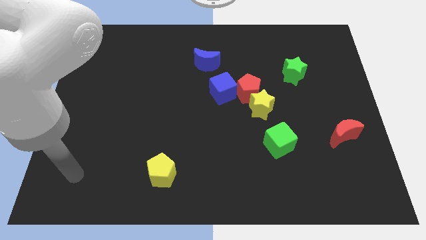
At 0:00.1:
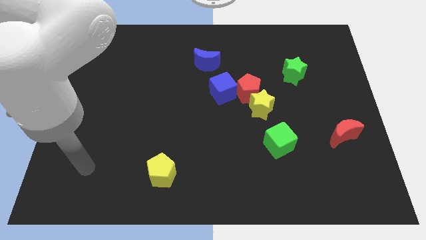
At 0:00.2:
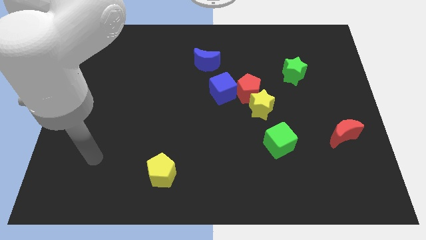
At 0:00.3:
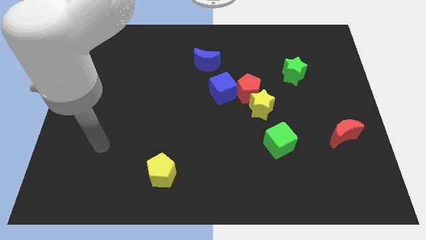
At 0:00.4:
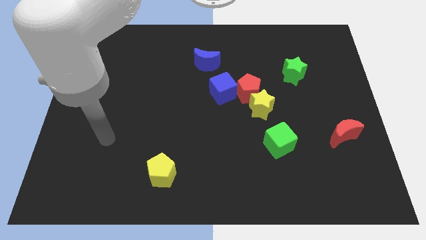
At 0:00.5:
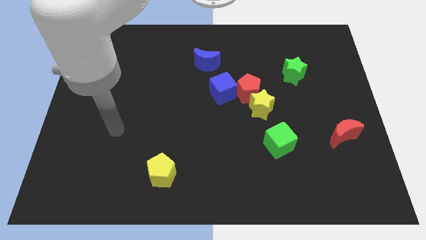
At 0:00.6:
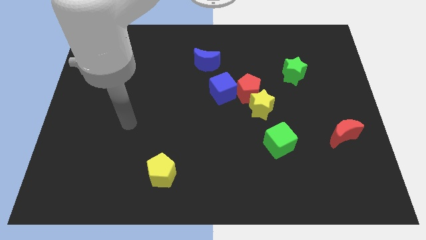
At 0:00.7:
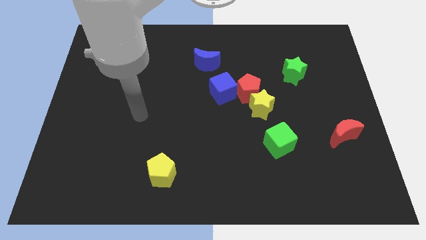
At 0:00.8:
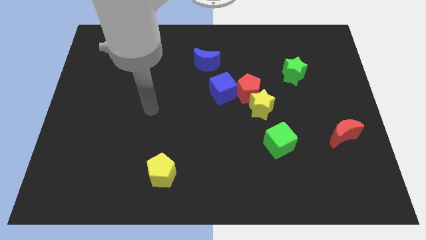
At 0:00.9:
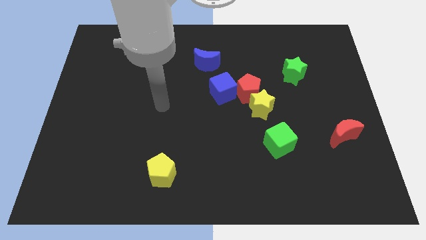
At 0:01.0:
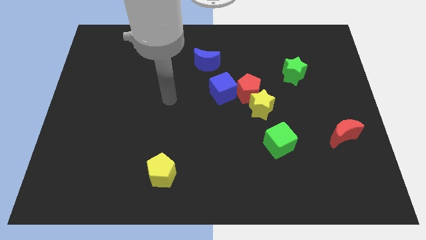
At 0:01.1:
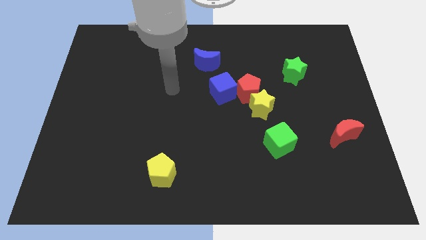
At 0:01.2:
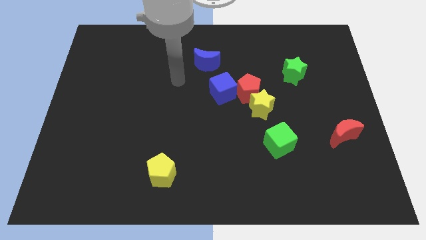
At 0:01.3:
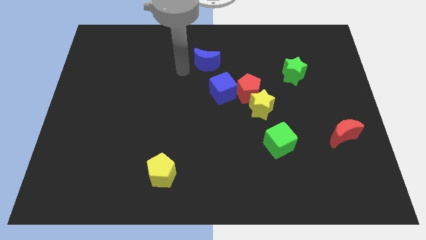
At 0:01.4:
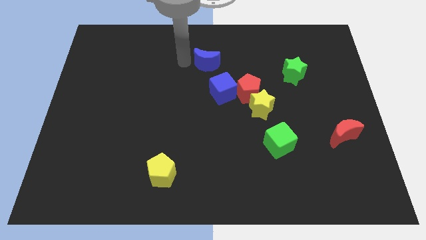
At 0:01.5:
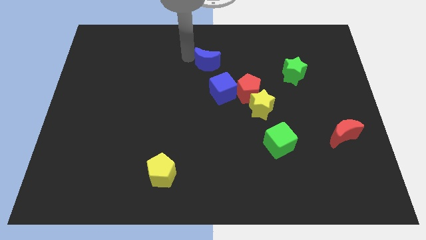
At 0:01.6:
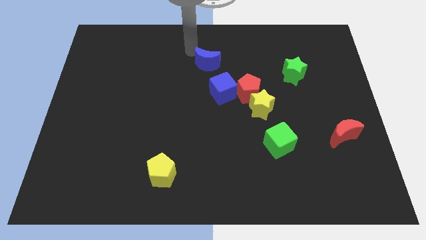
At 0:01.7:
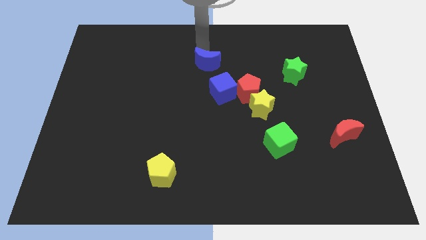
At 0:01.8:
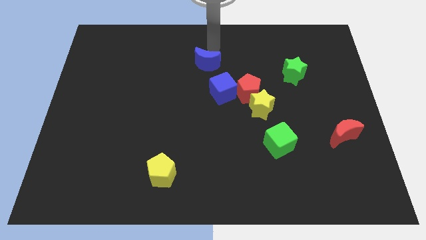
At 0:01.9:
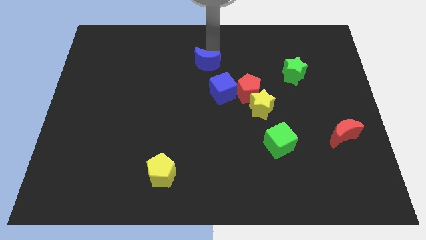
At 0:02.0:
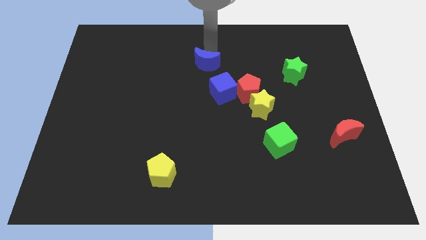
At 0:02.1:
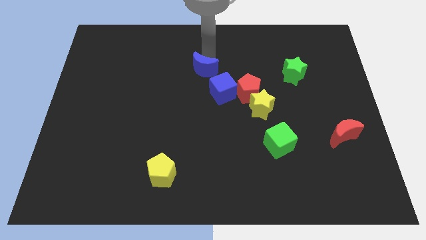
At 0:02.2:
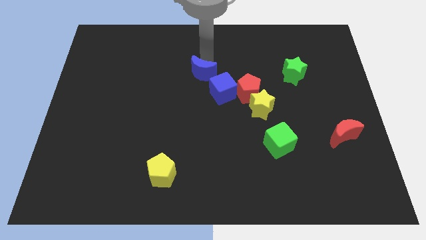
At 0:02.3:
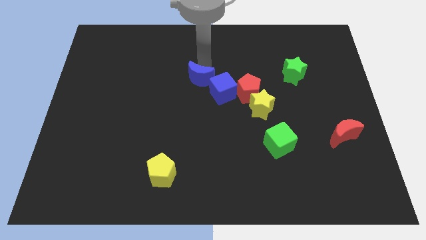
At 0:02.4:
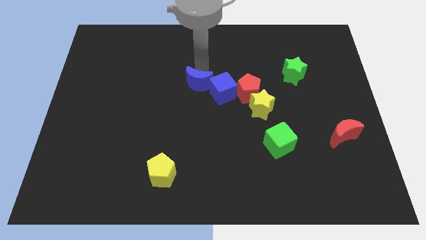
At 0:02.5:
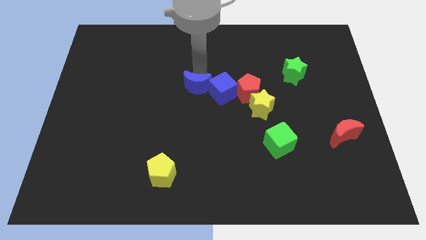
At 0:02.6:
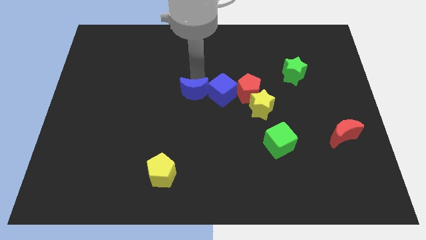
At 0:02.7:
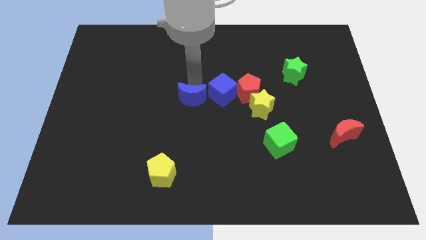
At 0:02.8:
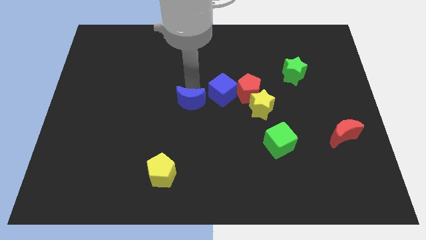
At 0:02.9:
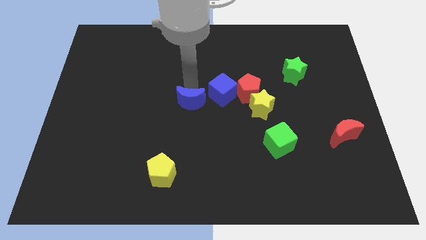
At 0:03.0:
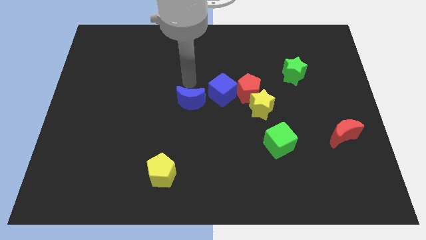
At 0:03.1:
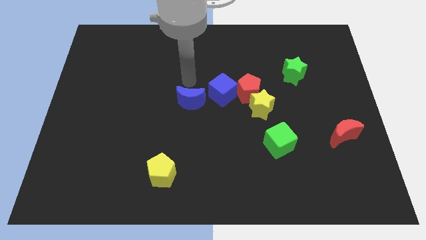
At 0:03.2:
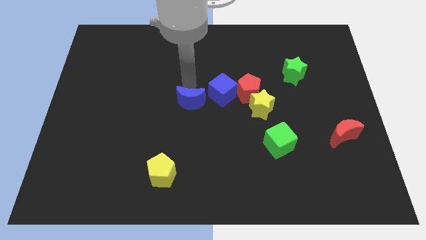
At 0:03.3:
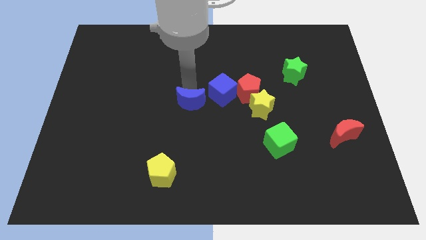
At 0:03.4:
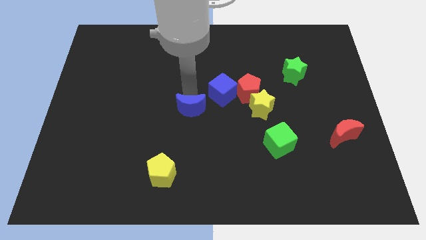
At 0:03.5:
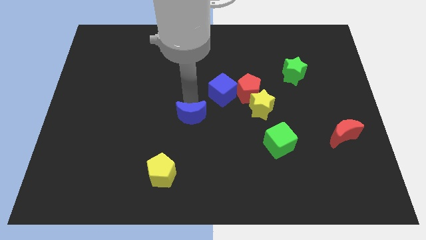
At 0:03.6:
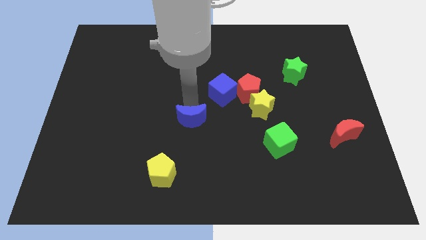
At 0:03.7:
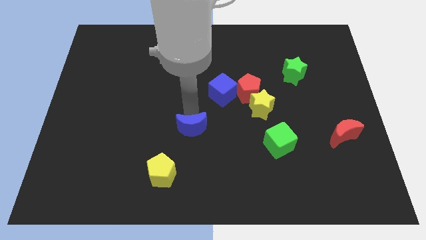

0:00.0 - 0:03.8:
move the blue moon downwards

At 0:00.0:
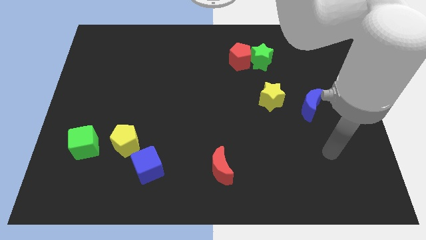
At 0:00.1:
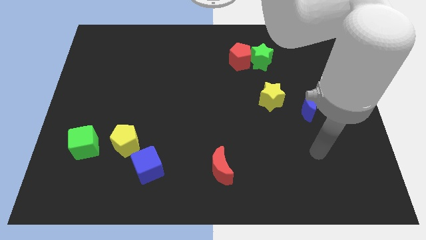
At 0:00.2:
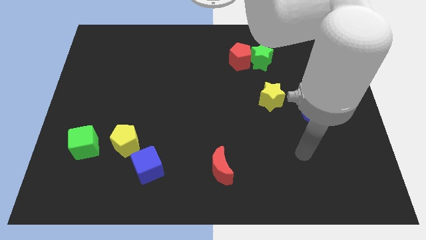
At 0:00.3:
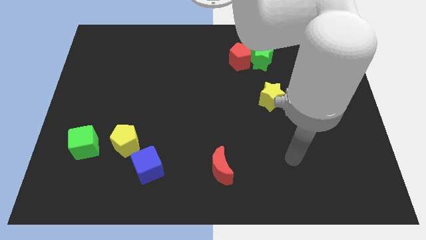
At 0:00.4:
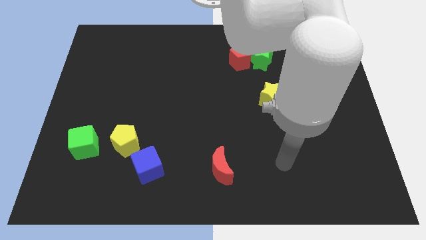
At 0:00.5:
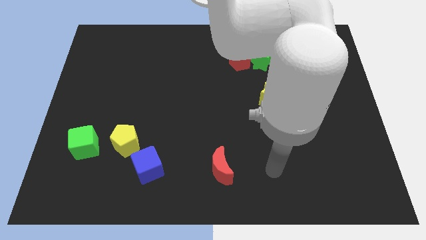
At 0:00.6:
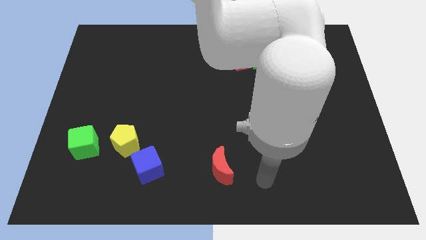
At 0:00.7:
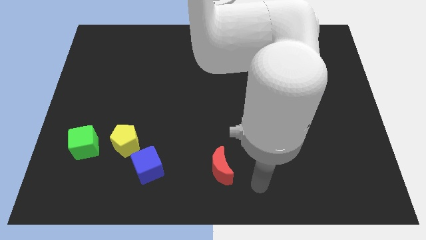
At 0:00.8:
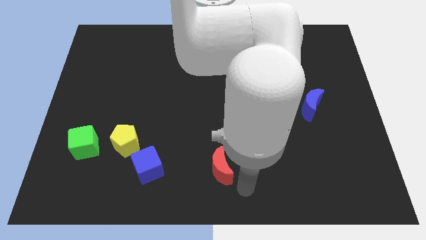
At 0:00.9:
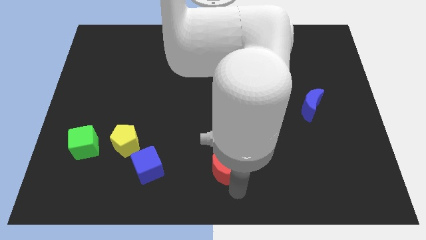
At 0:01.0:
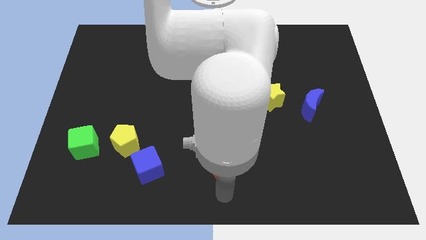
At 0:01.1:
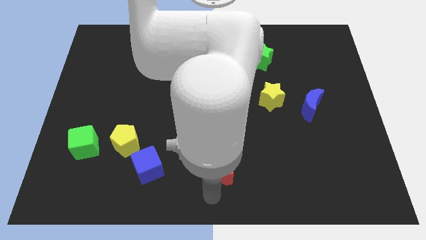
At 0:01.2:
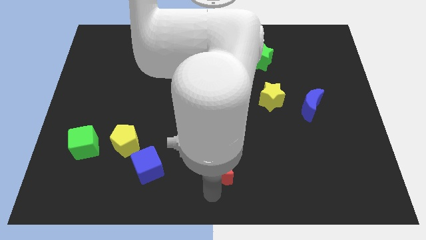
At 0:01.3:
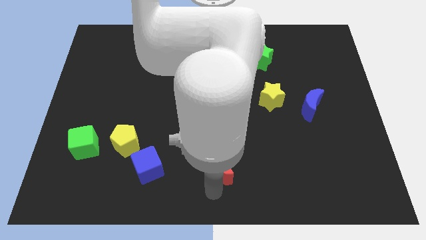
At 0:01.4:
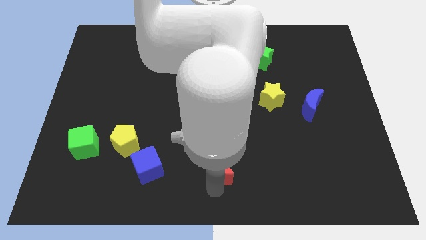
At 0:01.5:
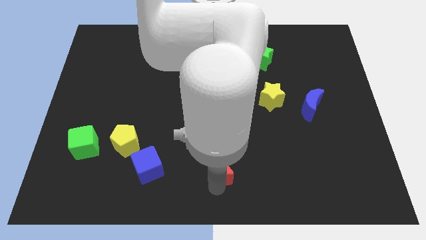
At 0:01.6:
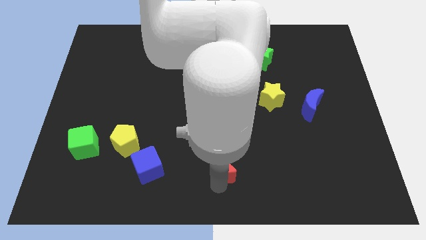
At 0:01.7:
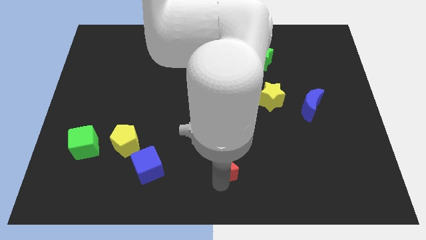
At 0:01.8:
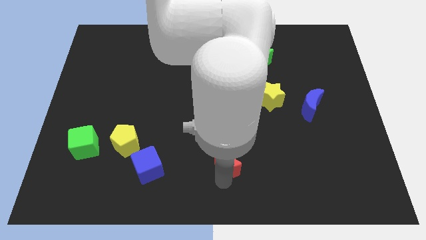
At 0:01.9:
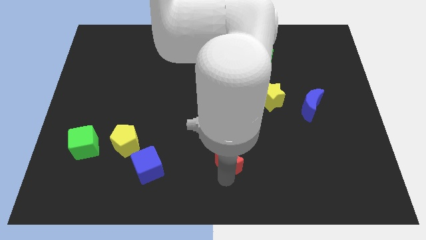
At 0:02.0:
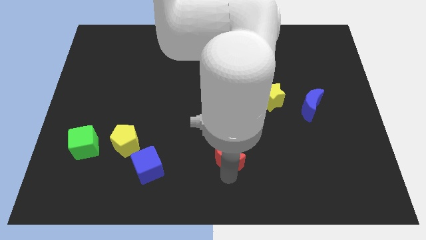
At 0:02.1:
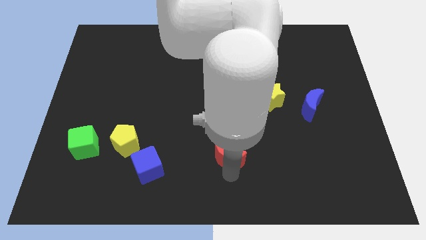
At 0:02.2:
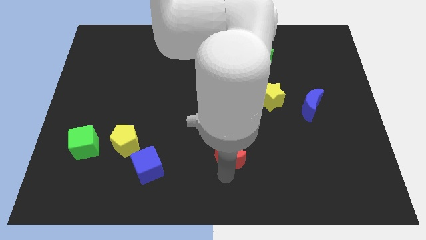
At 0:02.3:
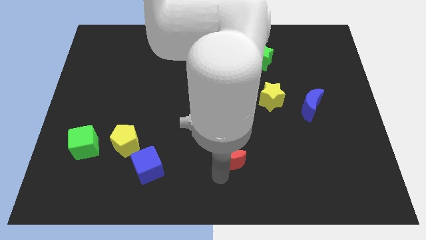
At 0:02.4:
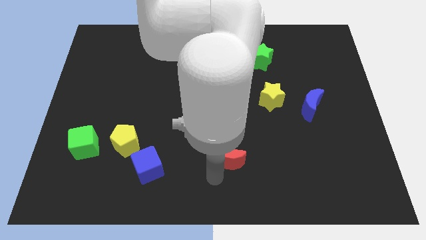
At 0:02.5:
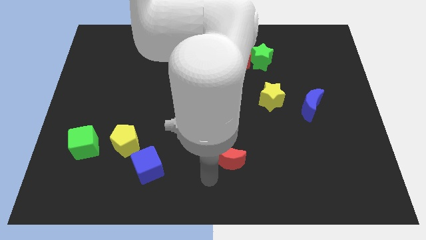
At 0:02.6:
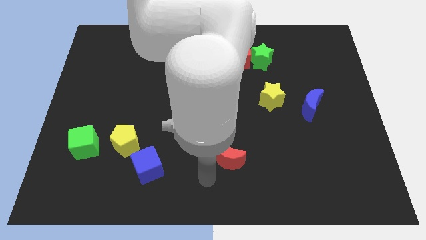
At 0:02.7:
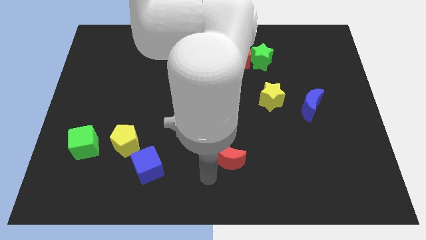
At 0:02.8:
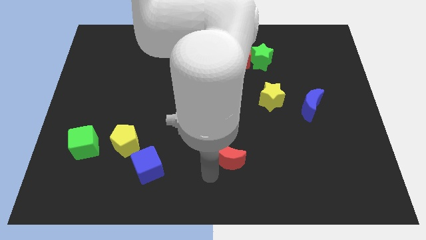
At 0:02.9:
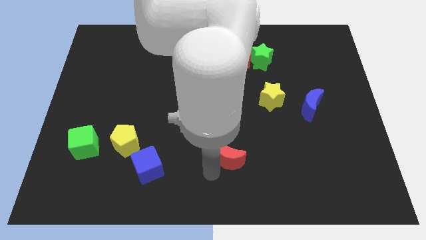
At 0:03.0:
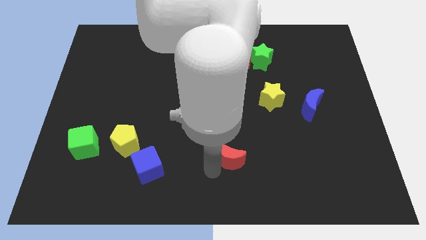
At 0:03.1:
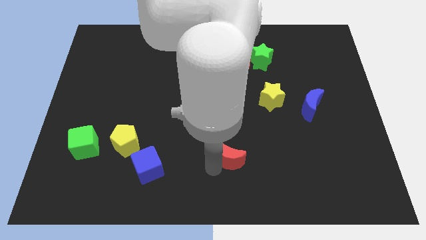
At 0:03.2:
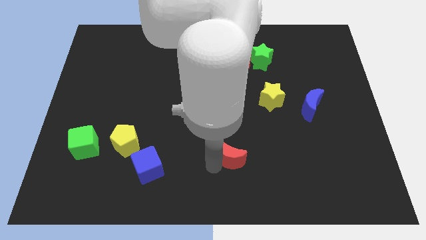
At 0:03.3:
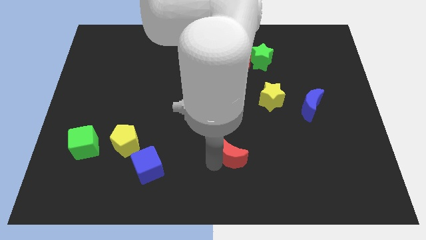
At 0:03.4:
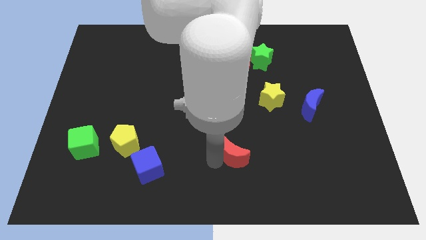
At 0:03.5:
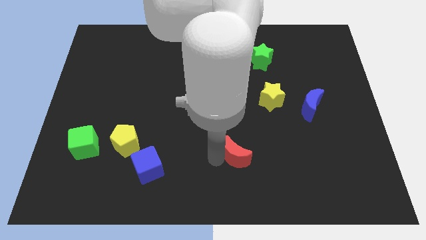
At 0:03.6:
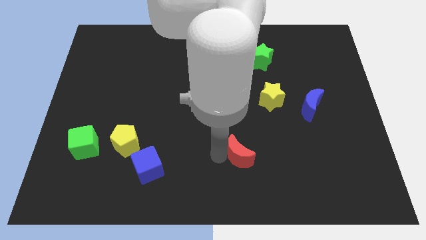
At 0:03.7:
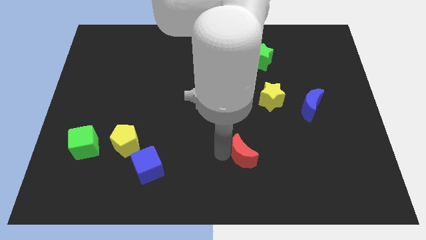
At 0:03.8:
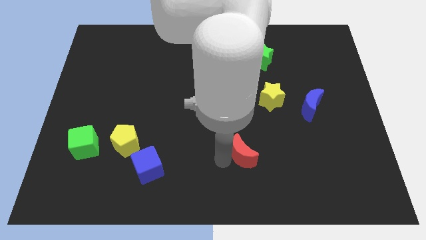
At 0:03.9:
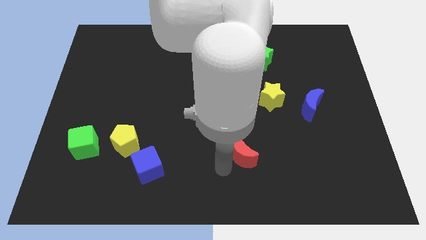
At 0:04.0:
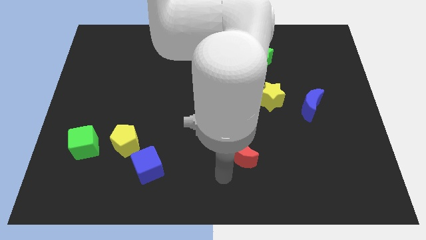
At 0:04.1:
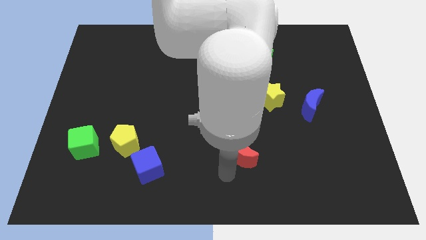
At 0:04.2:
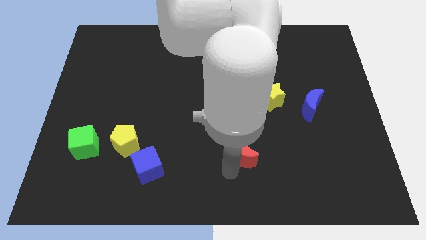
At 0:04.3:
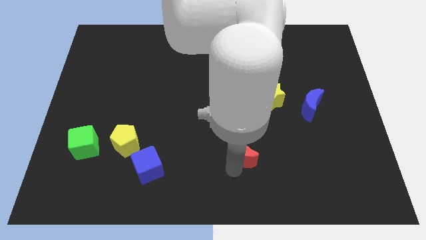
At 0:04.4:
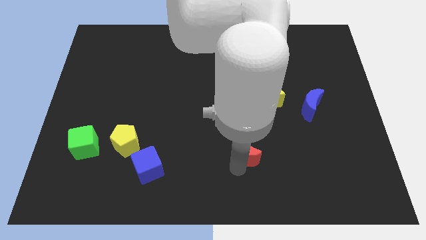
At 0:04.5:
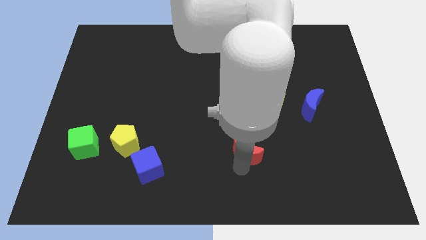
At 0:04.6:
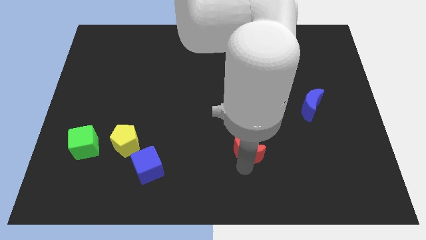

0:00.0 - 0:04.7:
move the red moon upwards and to the right a little bit
